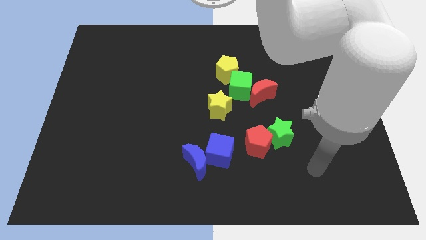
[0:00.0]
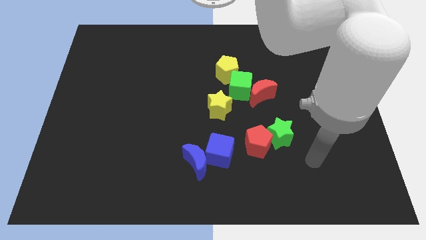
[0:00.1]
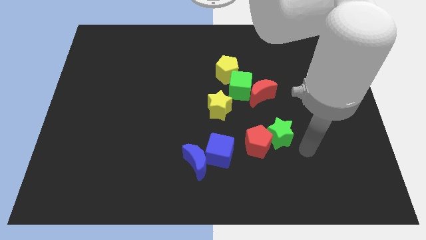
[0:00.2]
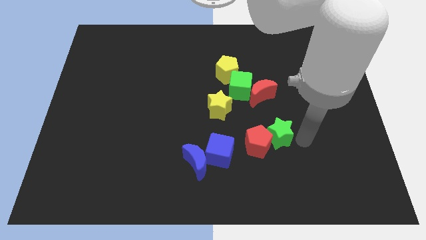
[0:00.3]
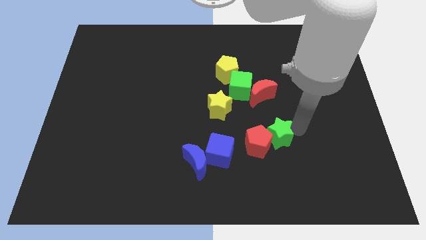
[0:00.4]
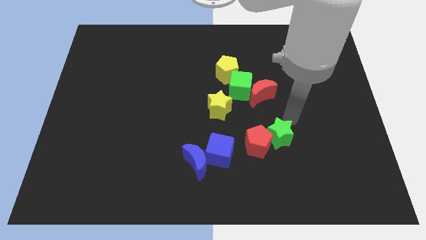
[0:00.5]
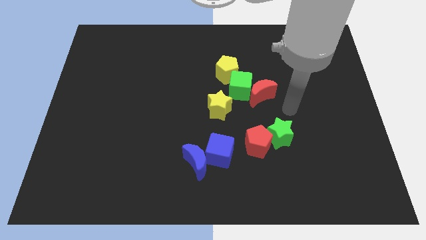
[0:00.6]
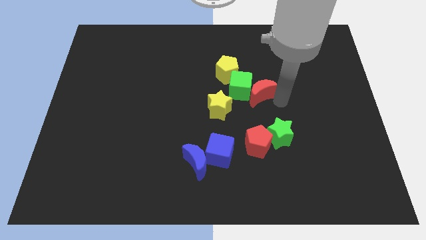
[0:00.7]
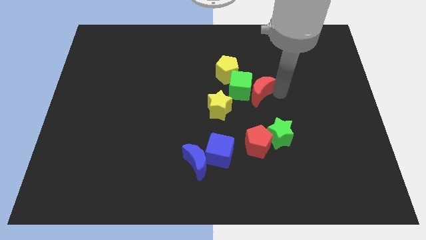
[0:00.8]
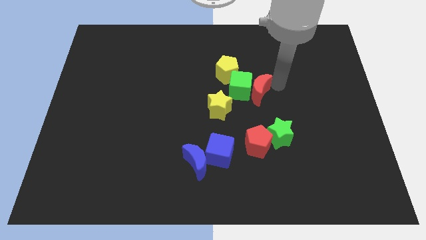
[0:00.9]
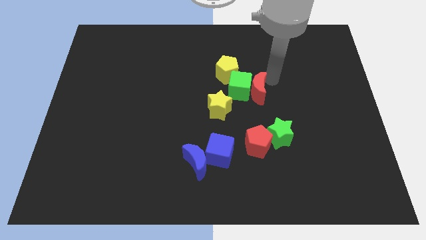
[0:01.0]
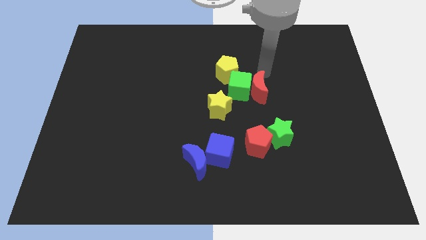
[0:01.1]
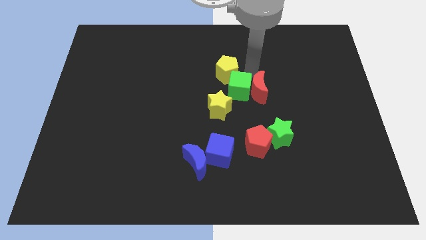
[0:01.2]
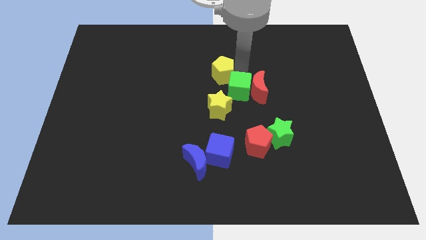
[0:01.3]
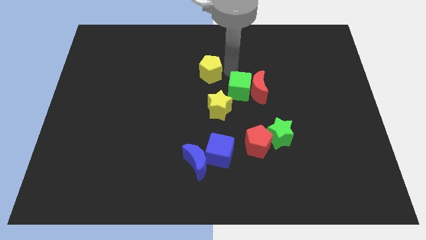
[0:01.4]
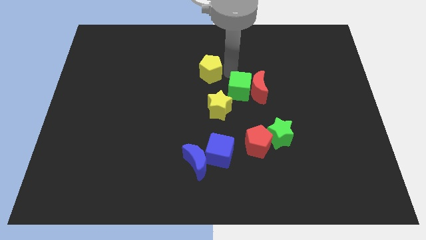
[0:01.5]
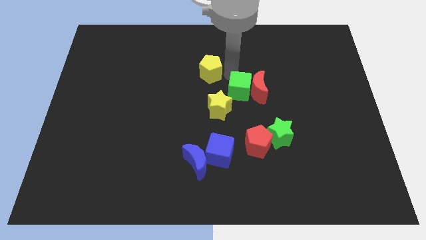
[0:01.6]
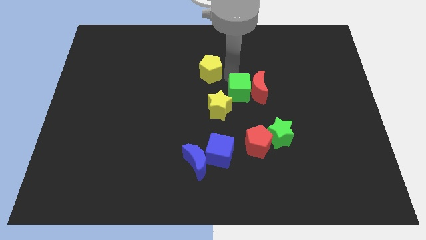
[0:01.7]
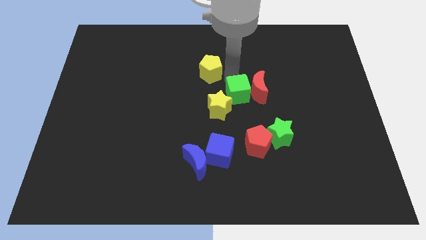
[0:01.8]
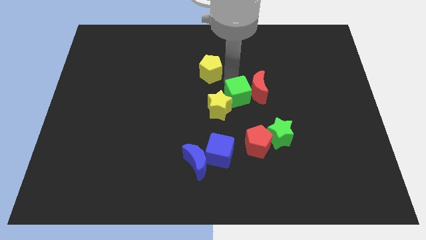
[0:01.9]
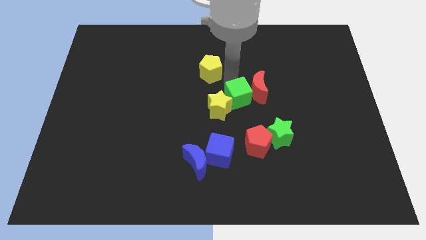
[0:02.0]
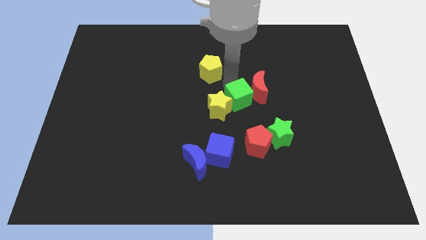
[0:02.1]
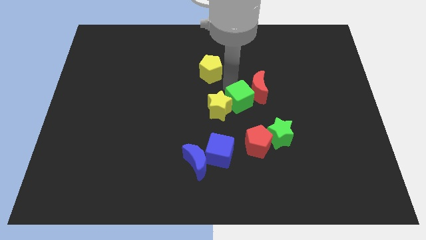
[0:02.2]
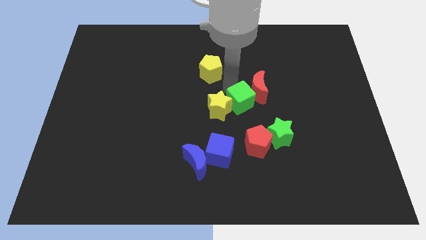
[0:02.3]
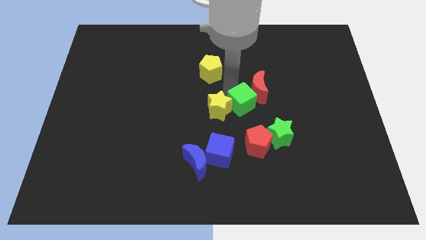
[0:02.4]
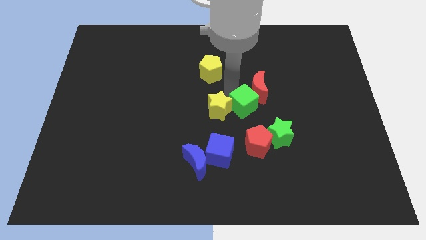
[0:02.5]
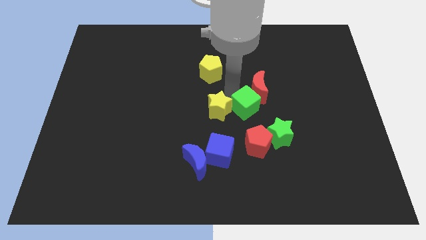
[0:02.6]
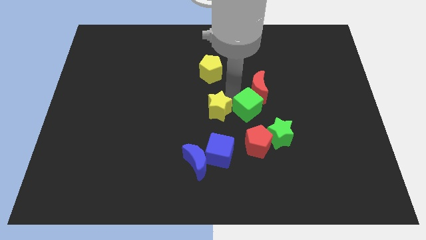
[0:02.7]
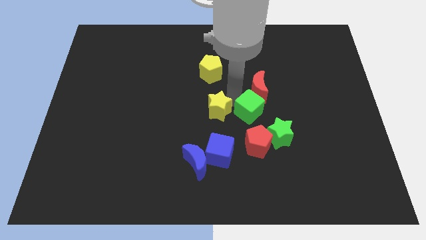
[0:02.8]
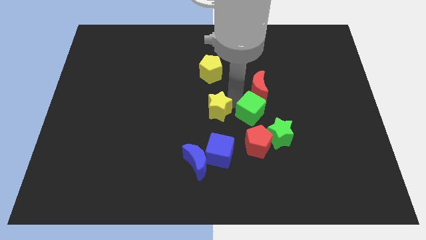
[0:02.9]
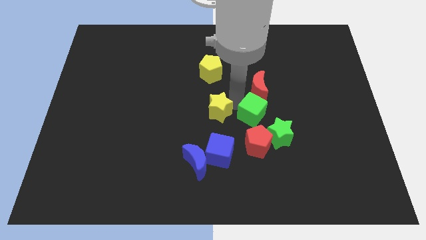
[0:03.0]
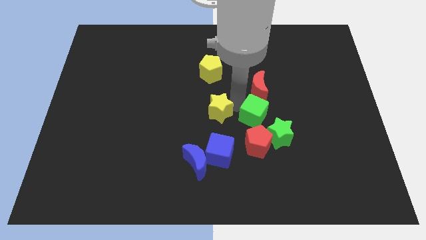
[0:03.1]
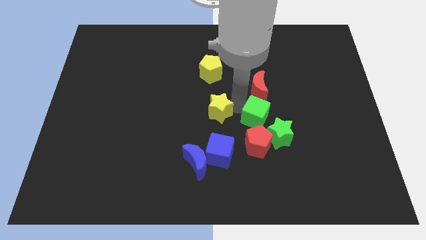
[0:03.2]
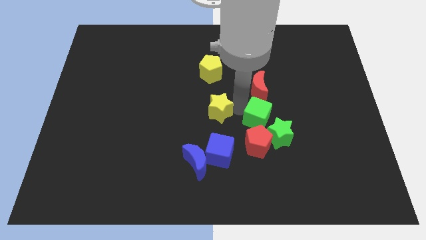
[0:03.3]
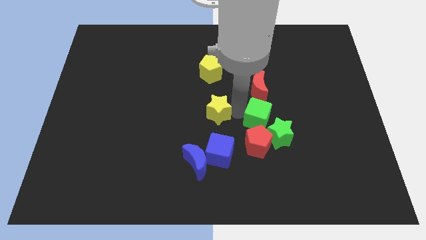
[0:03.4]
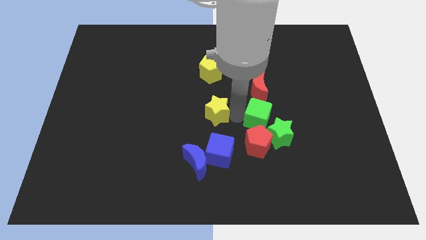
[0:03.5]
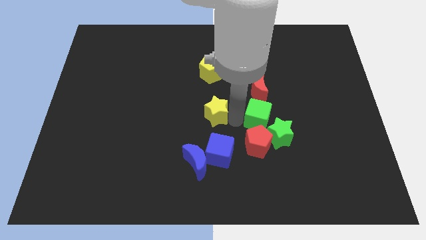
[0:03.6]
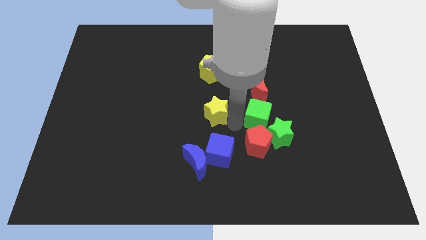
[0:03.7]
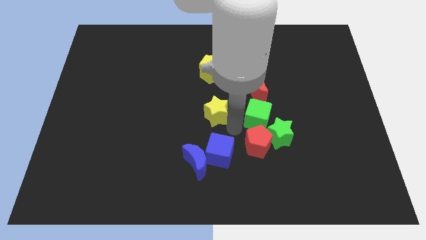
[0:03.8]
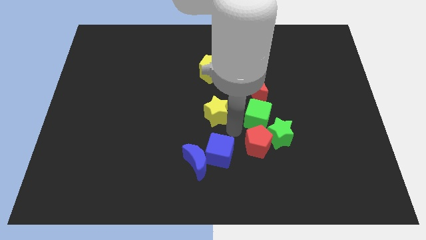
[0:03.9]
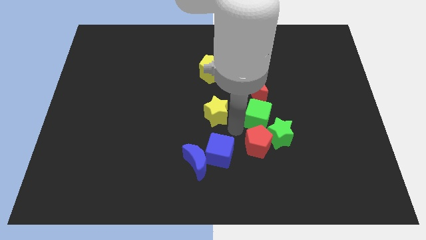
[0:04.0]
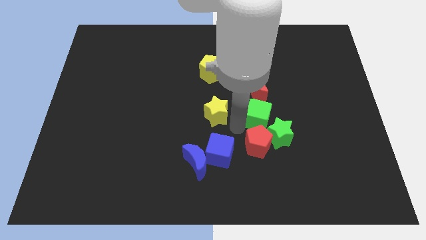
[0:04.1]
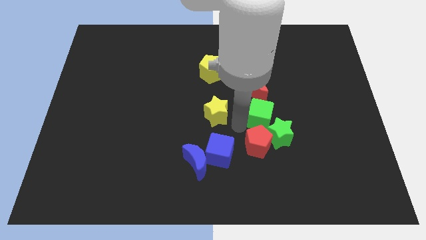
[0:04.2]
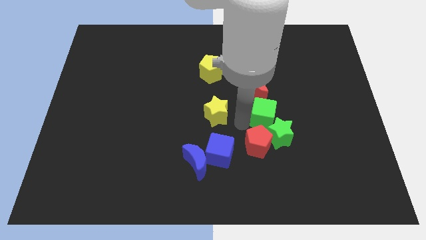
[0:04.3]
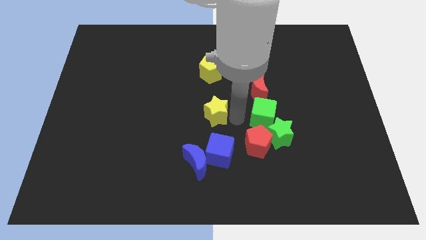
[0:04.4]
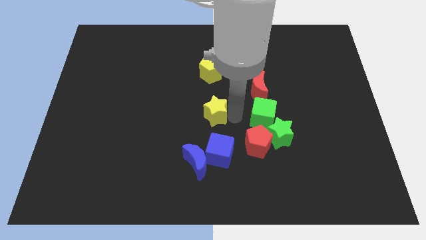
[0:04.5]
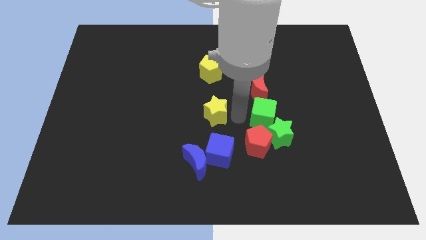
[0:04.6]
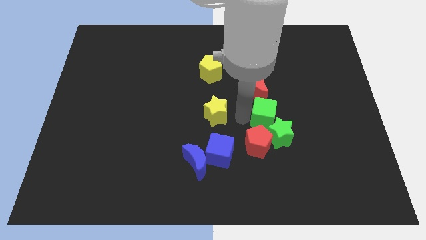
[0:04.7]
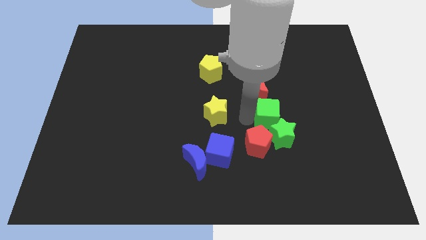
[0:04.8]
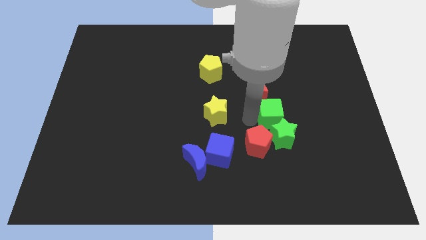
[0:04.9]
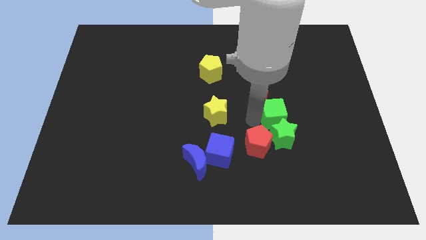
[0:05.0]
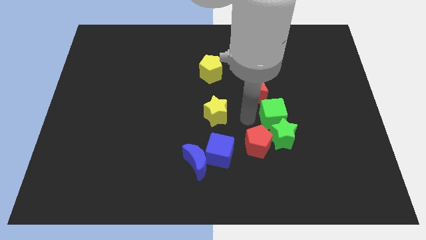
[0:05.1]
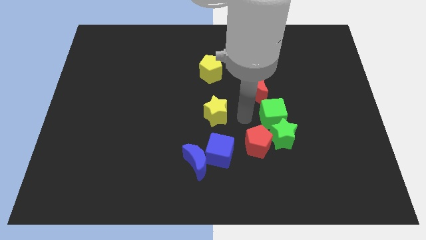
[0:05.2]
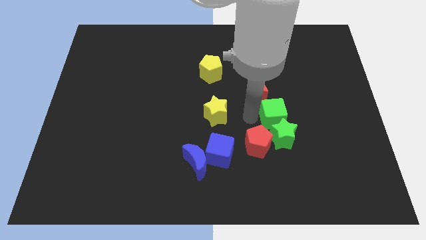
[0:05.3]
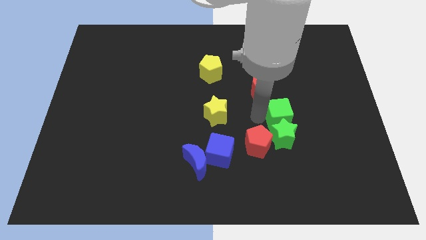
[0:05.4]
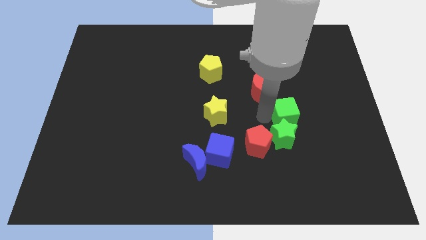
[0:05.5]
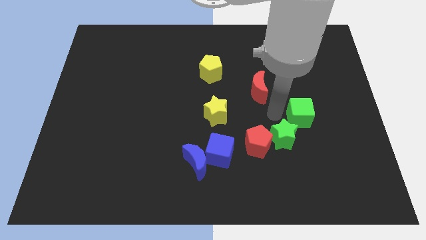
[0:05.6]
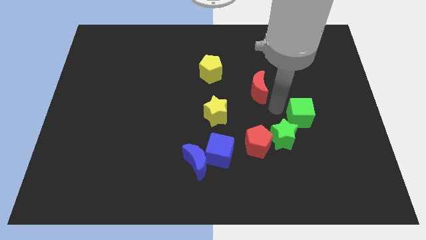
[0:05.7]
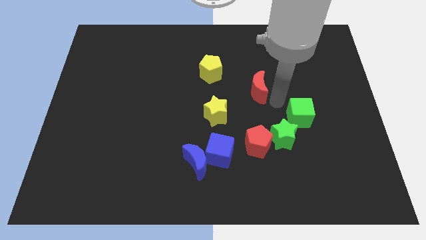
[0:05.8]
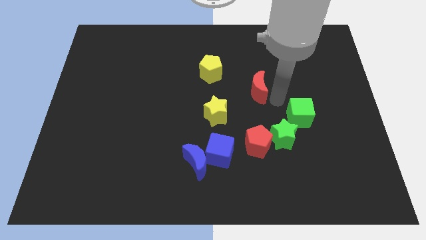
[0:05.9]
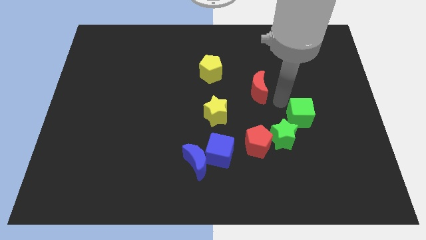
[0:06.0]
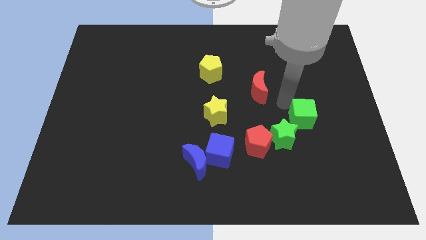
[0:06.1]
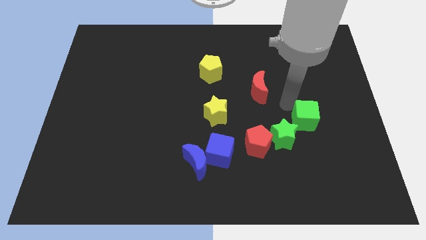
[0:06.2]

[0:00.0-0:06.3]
slide the green cube just right of the green star

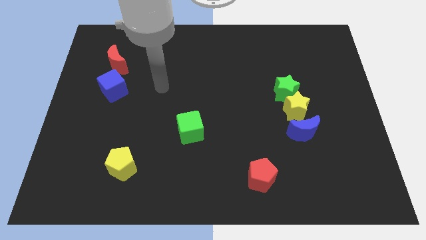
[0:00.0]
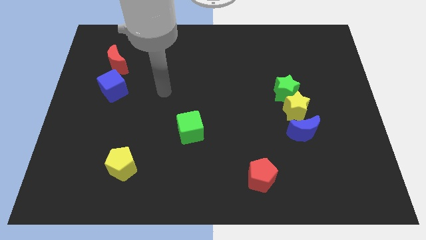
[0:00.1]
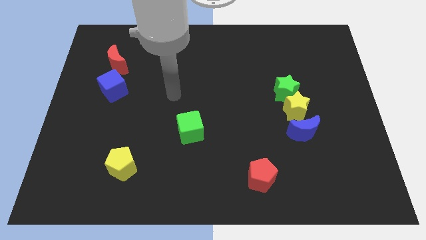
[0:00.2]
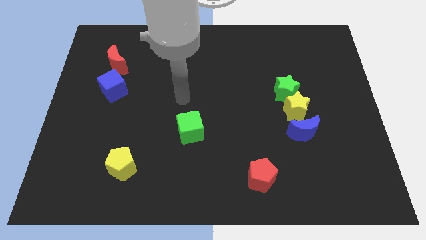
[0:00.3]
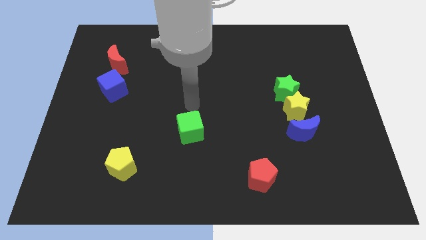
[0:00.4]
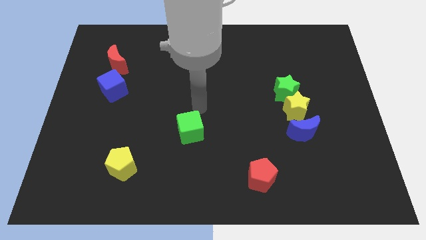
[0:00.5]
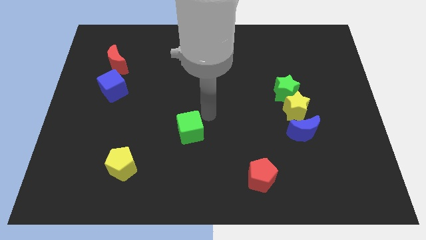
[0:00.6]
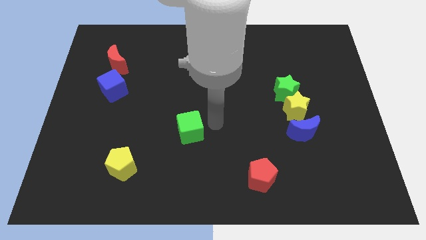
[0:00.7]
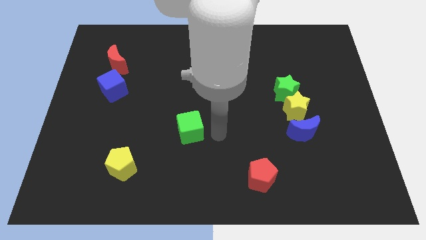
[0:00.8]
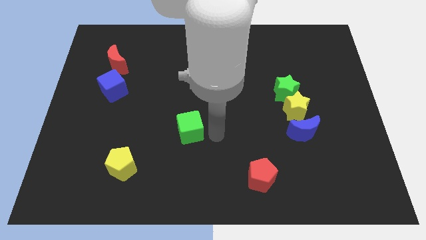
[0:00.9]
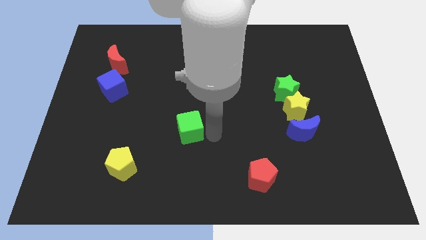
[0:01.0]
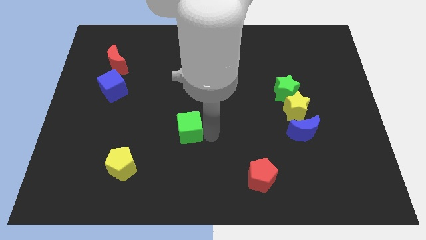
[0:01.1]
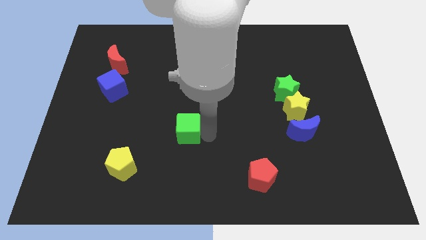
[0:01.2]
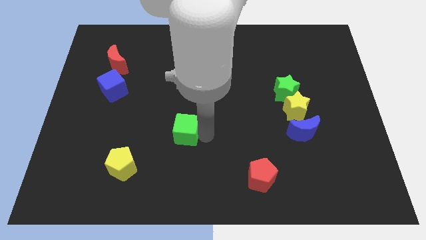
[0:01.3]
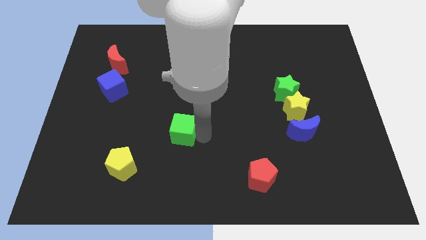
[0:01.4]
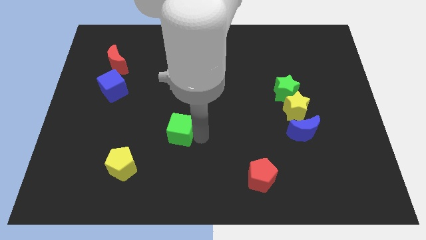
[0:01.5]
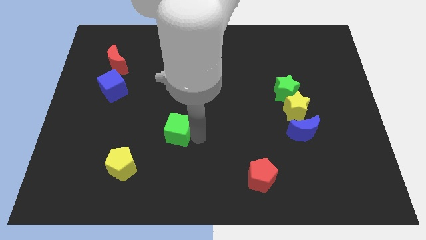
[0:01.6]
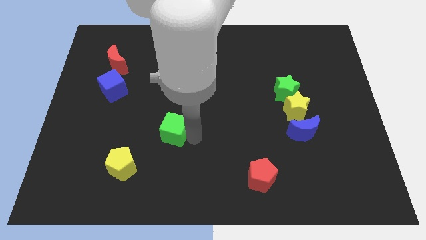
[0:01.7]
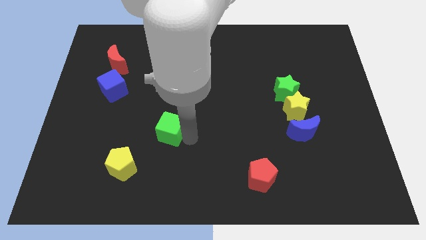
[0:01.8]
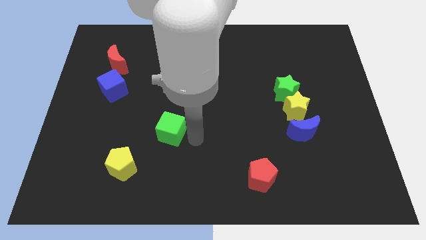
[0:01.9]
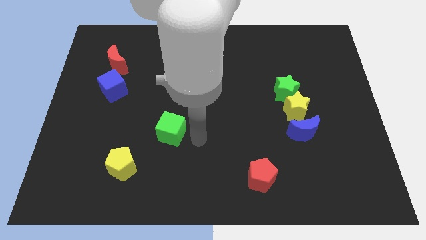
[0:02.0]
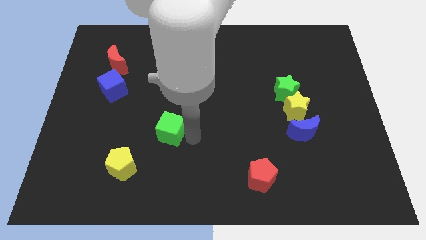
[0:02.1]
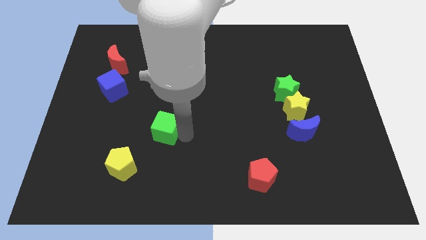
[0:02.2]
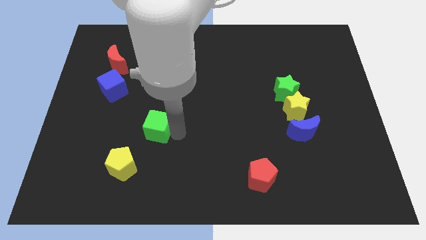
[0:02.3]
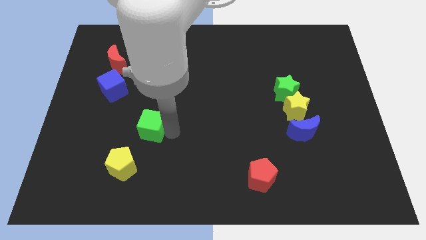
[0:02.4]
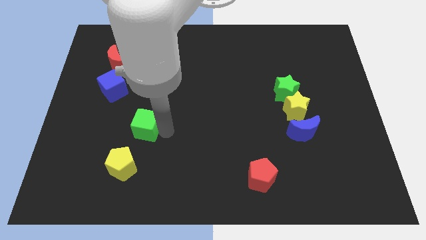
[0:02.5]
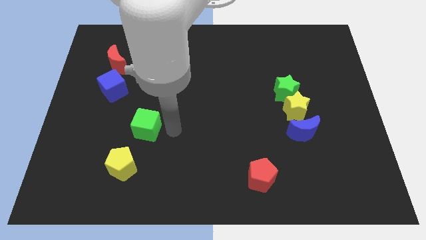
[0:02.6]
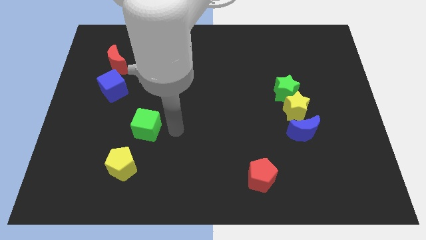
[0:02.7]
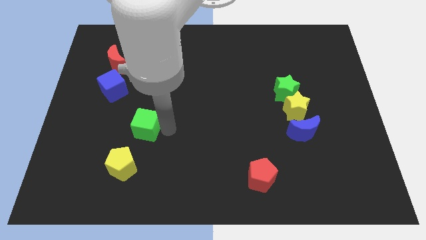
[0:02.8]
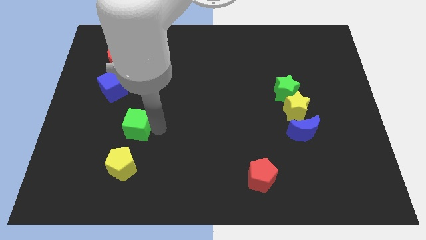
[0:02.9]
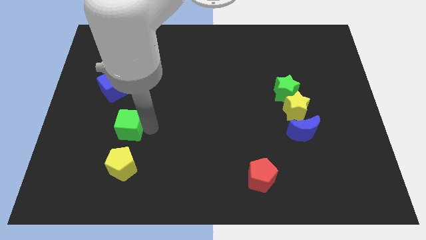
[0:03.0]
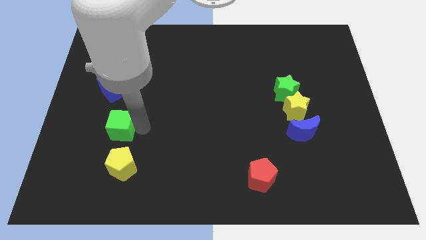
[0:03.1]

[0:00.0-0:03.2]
put the green cube to the bottom side of the blue cube
